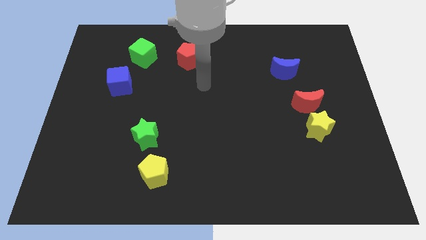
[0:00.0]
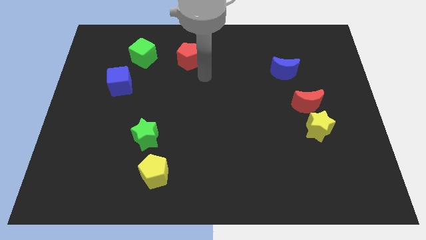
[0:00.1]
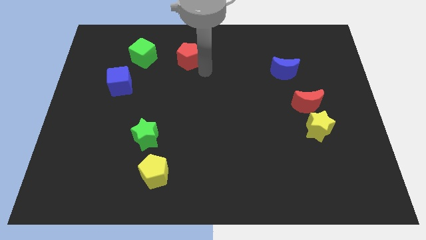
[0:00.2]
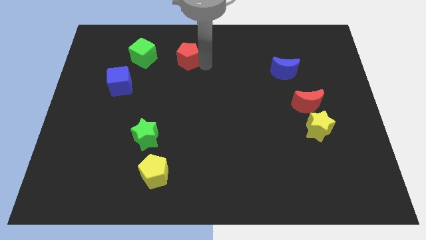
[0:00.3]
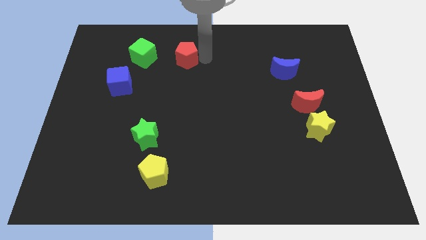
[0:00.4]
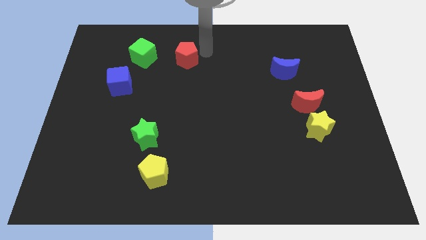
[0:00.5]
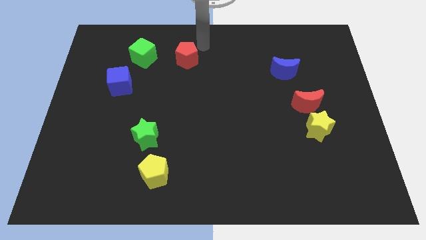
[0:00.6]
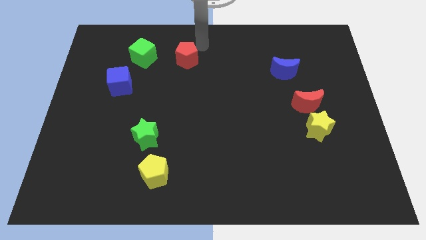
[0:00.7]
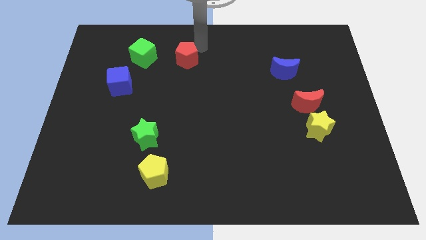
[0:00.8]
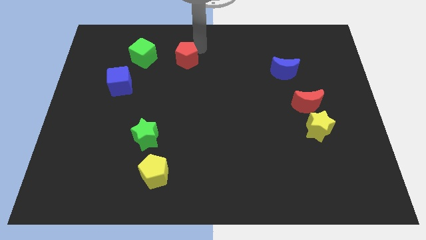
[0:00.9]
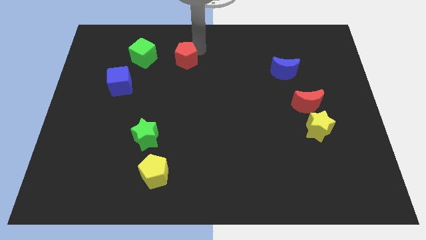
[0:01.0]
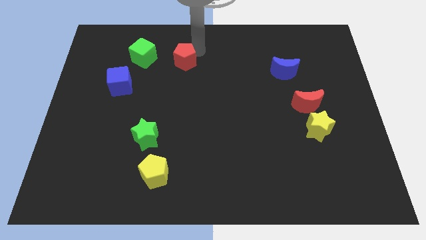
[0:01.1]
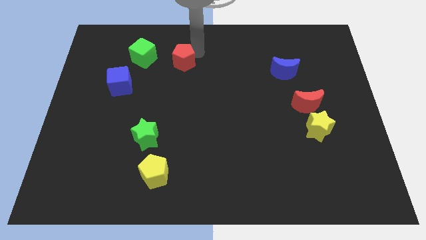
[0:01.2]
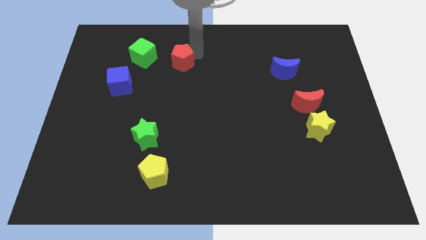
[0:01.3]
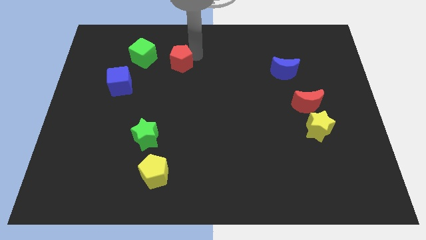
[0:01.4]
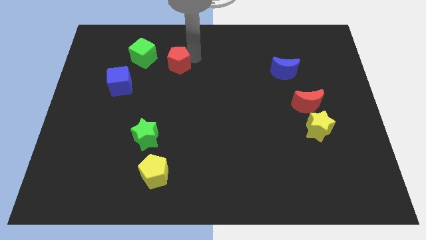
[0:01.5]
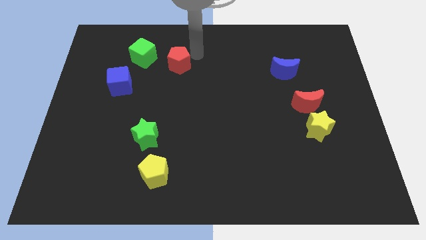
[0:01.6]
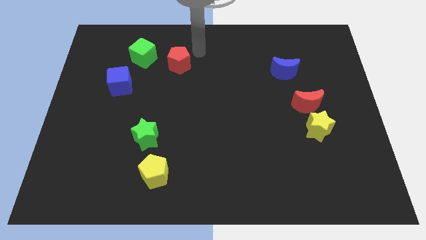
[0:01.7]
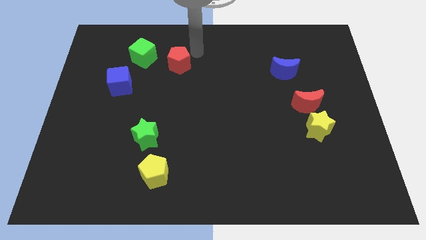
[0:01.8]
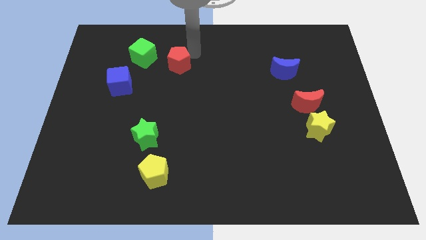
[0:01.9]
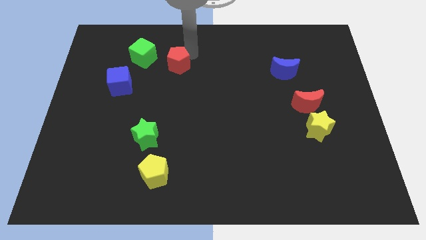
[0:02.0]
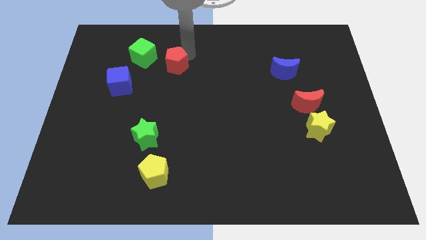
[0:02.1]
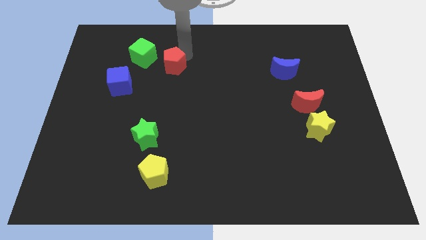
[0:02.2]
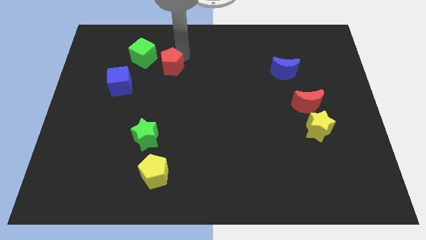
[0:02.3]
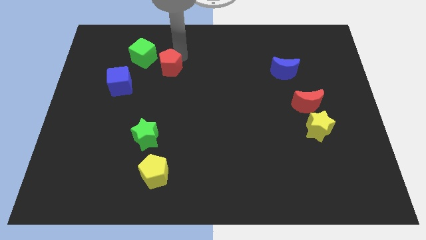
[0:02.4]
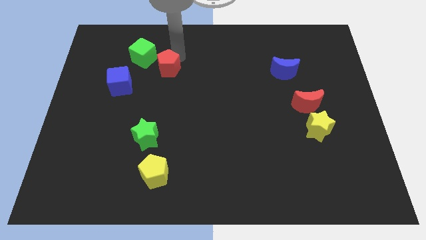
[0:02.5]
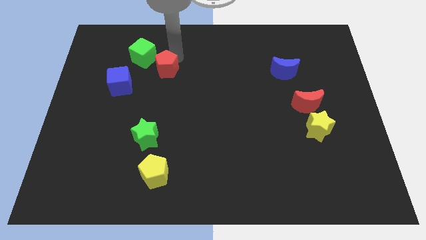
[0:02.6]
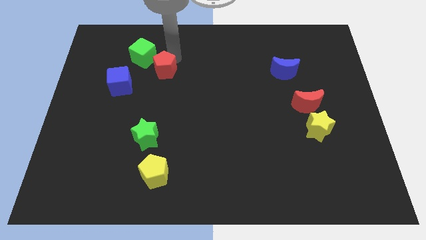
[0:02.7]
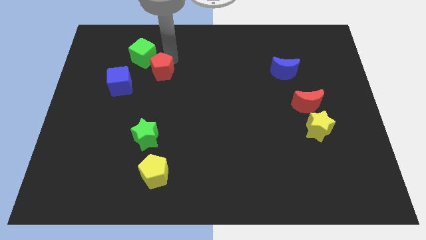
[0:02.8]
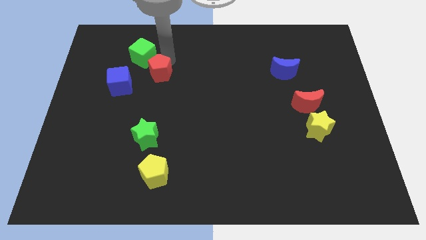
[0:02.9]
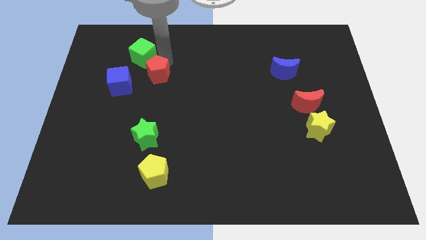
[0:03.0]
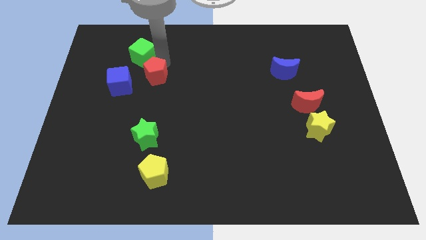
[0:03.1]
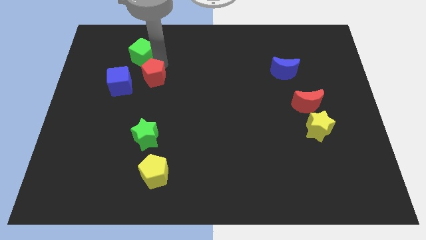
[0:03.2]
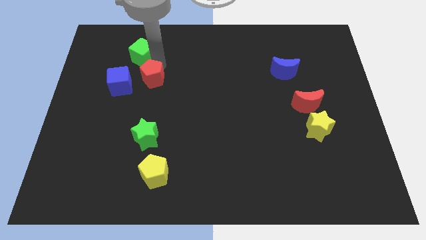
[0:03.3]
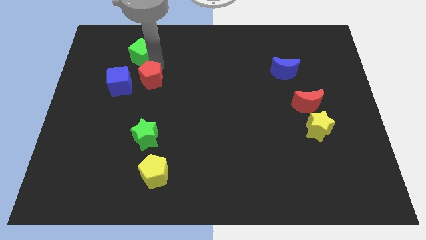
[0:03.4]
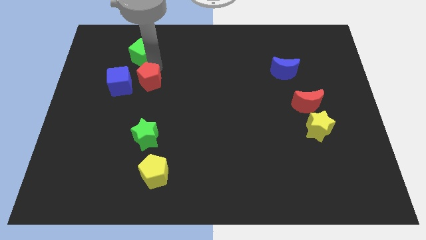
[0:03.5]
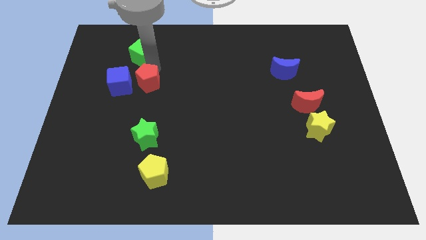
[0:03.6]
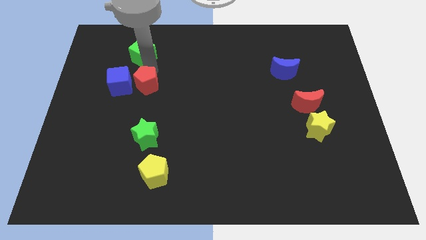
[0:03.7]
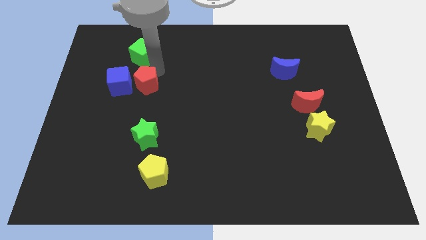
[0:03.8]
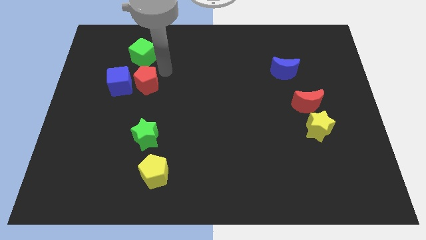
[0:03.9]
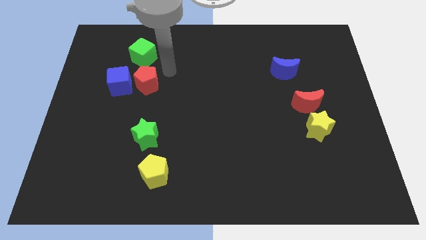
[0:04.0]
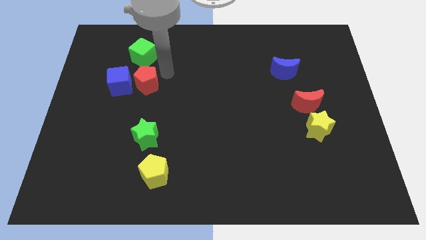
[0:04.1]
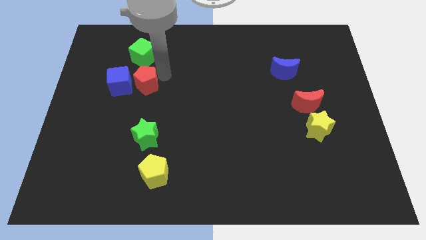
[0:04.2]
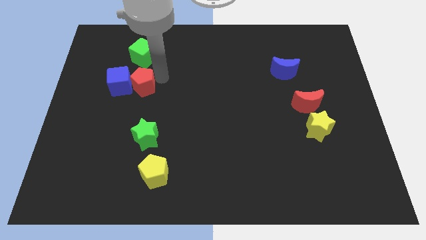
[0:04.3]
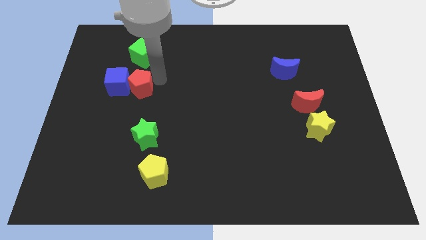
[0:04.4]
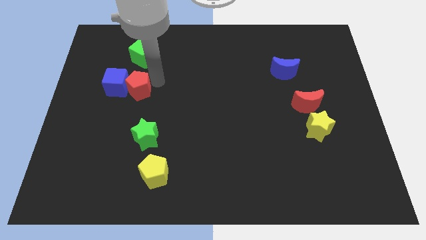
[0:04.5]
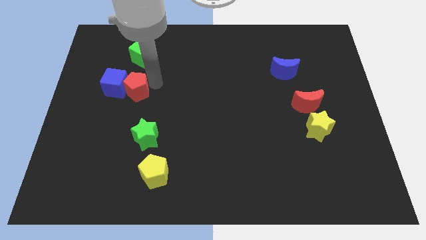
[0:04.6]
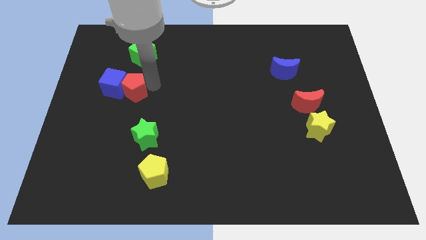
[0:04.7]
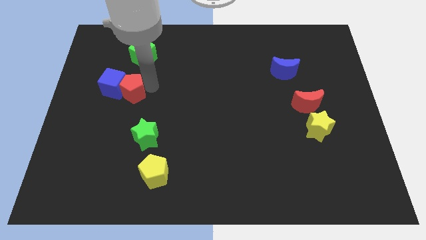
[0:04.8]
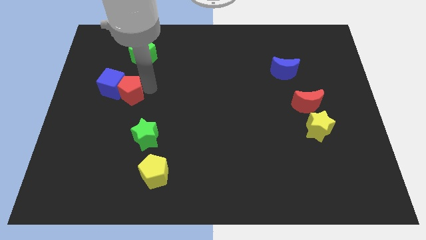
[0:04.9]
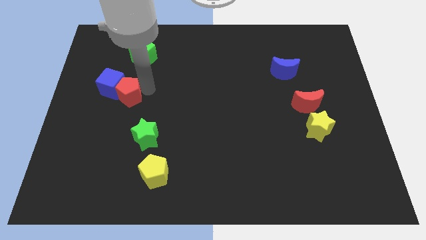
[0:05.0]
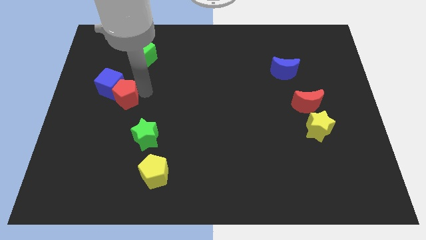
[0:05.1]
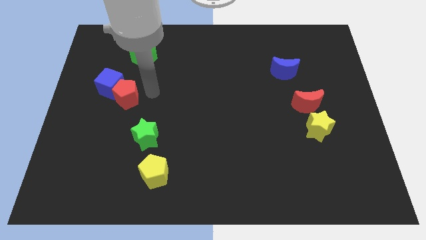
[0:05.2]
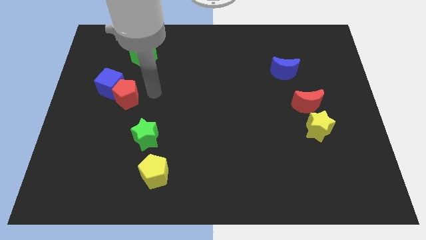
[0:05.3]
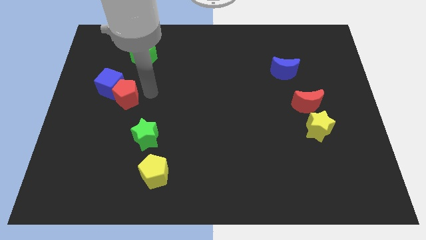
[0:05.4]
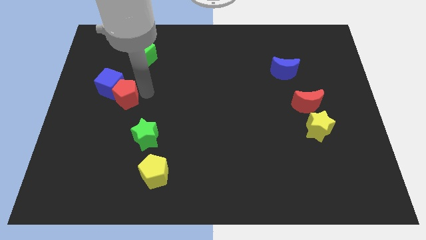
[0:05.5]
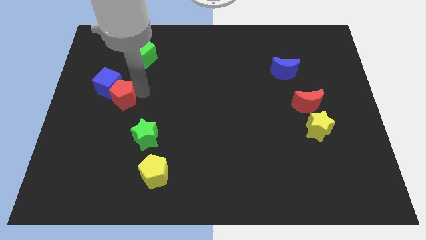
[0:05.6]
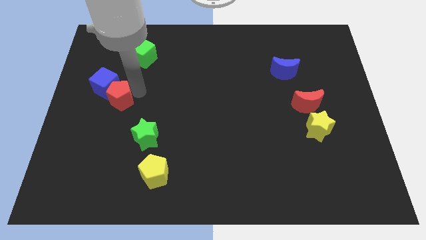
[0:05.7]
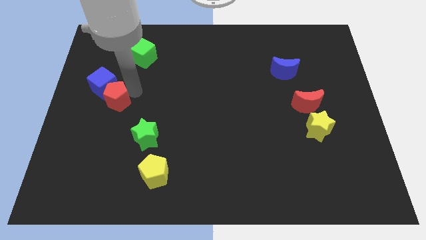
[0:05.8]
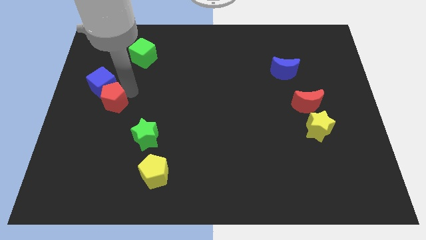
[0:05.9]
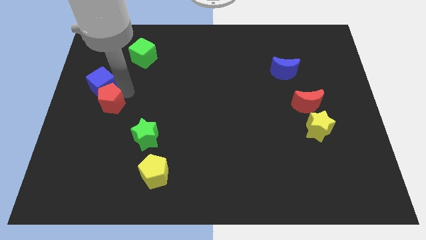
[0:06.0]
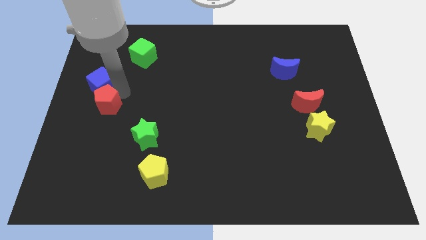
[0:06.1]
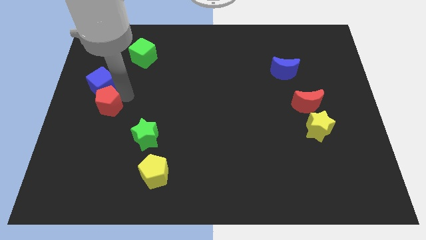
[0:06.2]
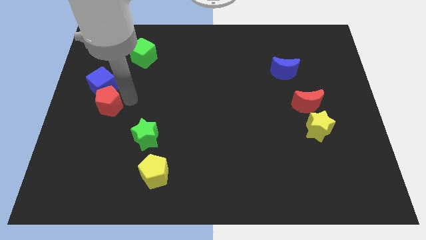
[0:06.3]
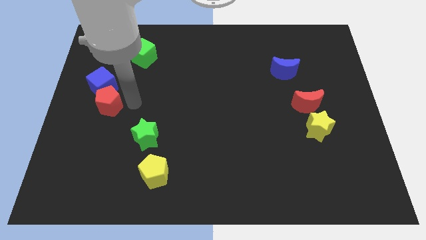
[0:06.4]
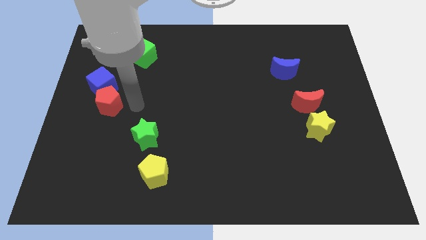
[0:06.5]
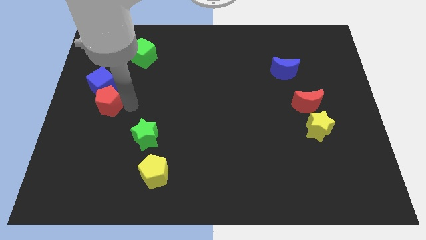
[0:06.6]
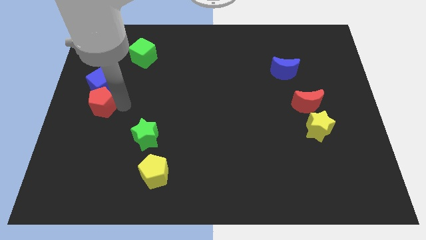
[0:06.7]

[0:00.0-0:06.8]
slide the red pentagon diagonally down and to the left of the blue cube

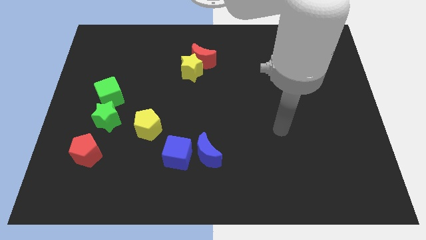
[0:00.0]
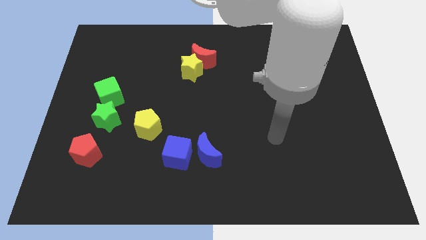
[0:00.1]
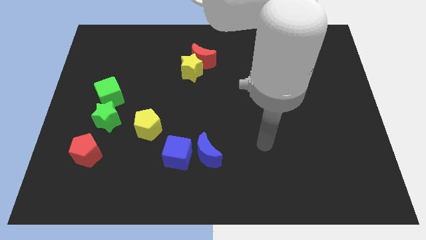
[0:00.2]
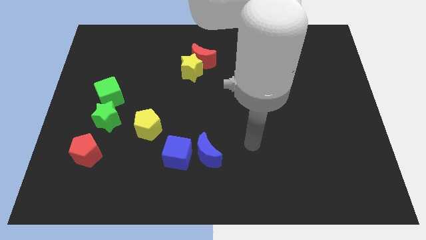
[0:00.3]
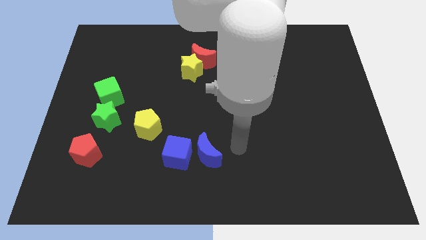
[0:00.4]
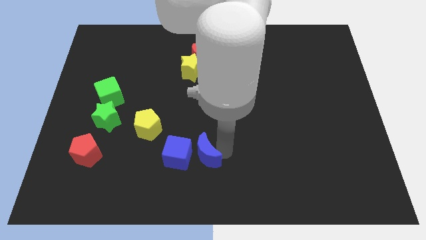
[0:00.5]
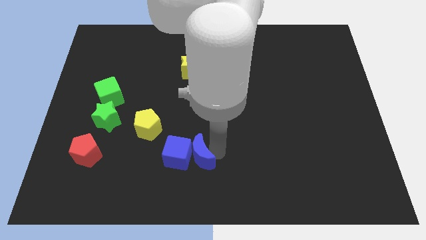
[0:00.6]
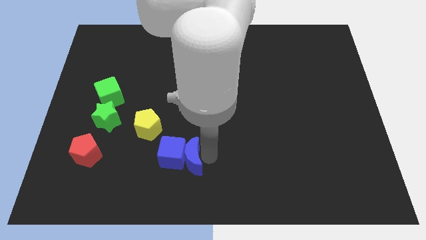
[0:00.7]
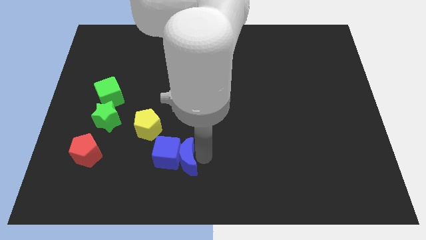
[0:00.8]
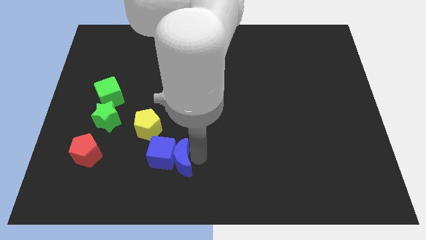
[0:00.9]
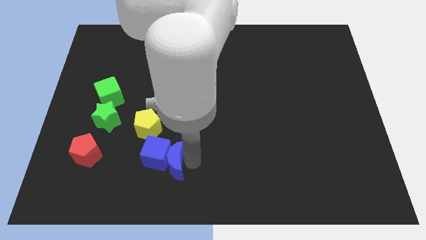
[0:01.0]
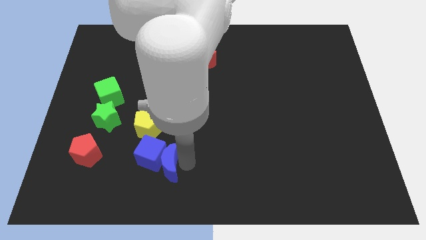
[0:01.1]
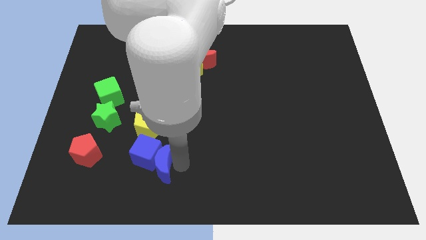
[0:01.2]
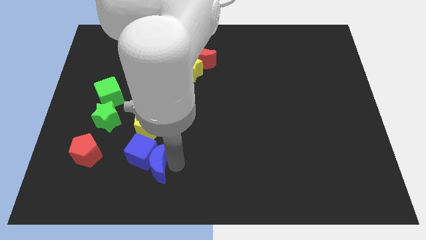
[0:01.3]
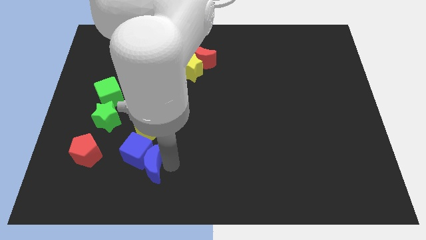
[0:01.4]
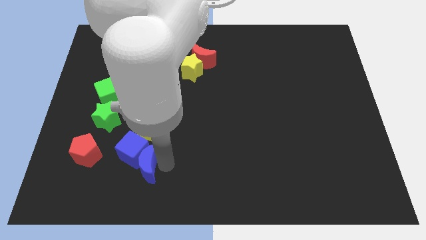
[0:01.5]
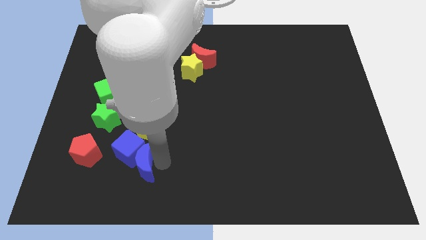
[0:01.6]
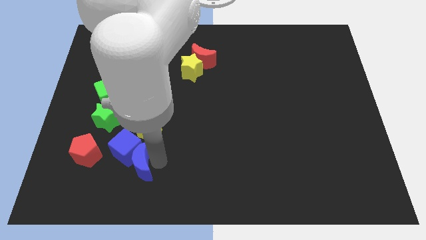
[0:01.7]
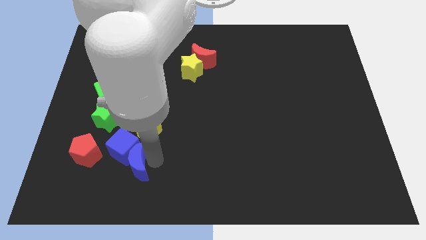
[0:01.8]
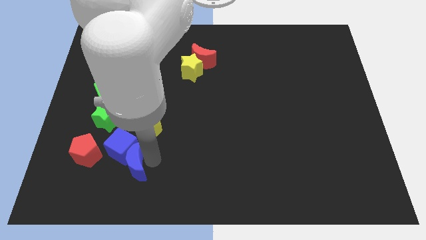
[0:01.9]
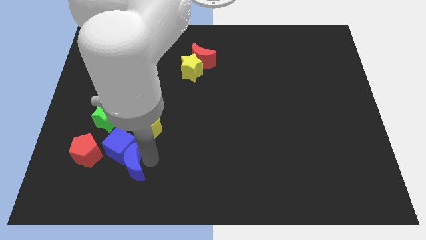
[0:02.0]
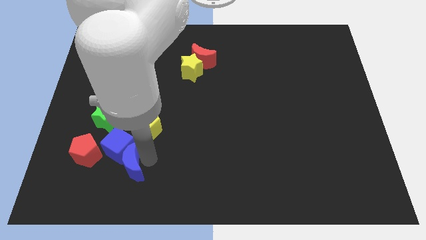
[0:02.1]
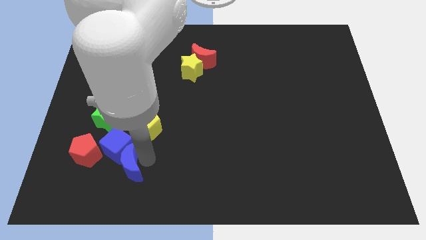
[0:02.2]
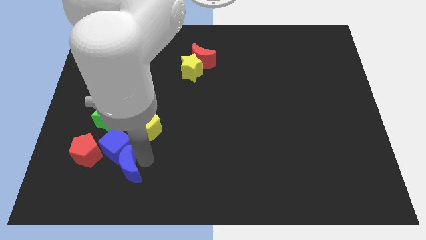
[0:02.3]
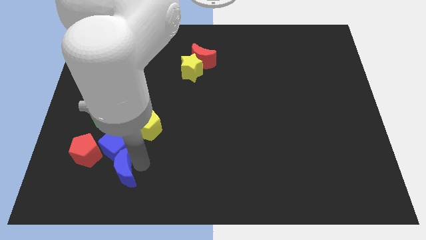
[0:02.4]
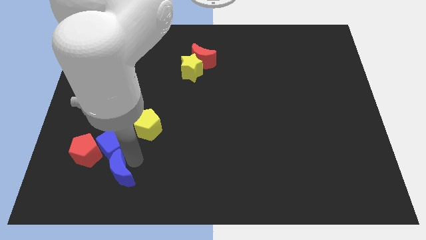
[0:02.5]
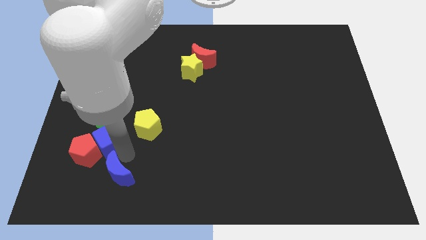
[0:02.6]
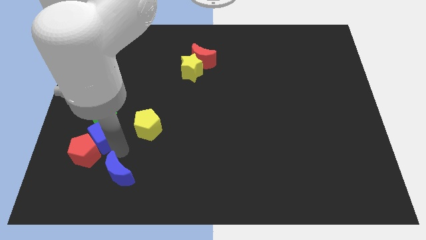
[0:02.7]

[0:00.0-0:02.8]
move the blue cube to the top side of the red pentagon
